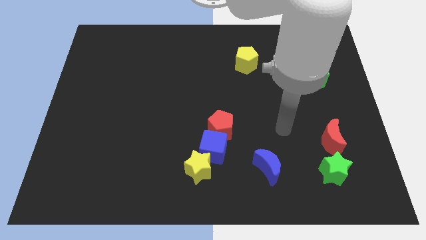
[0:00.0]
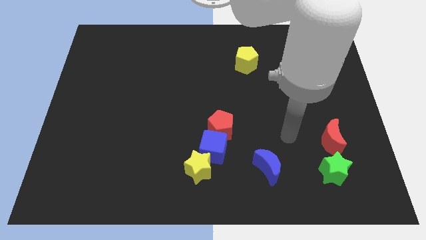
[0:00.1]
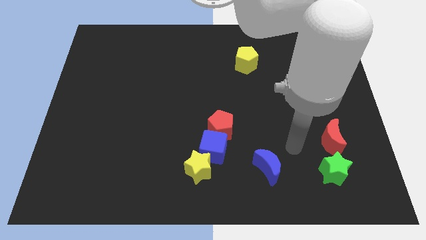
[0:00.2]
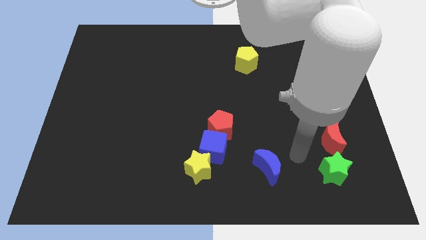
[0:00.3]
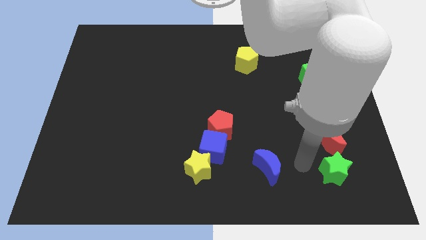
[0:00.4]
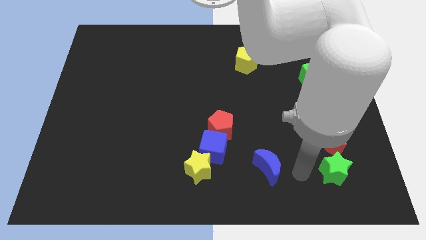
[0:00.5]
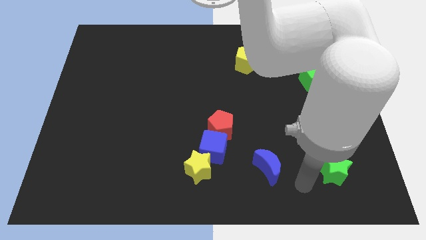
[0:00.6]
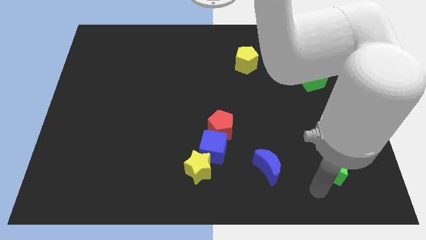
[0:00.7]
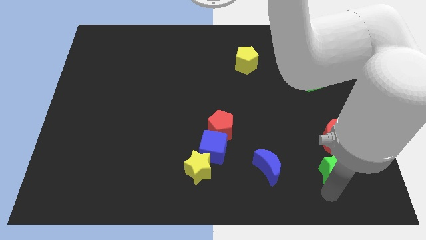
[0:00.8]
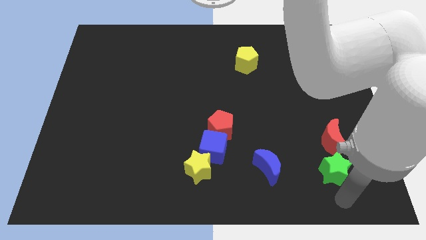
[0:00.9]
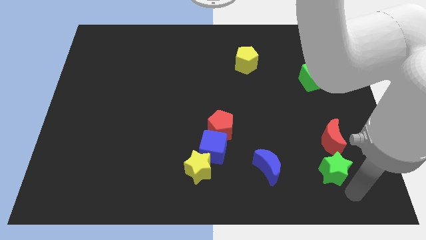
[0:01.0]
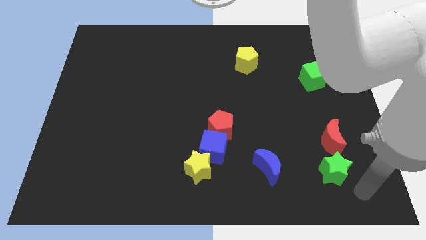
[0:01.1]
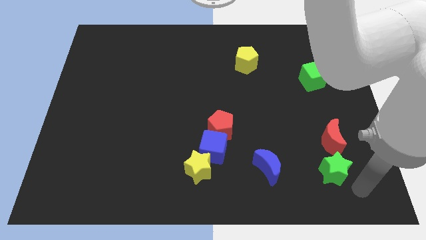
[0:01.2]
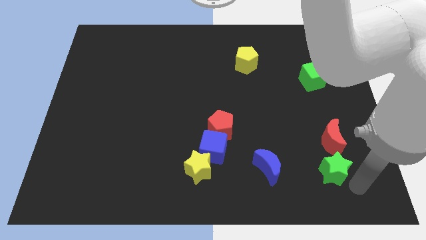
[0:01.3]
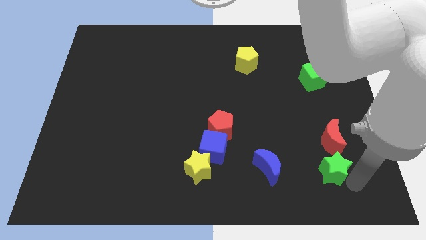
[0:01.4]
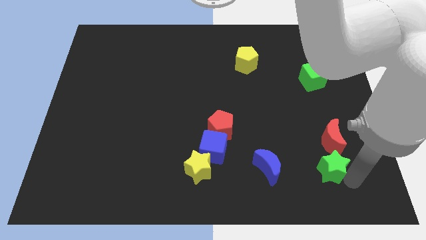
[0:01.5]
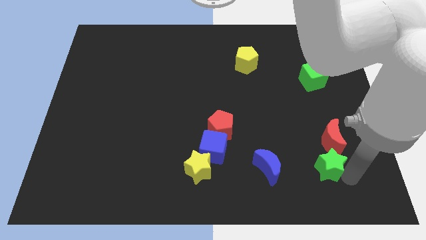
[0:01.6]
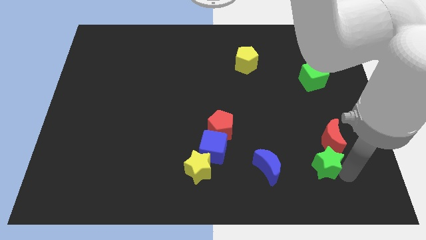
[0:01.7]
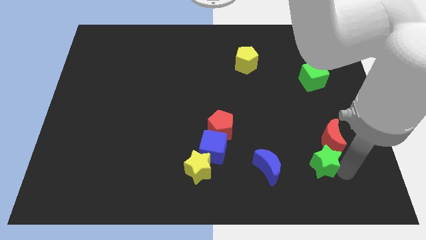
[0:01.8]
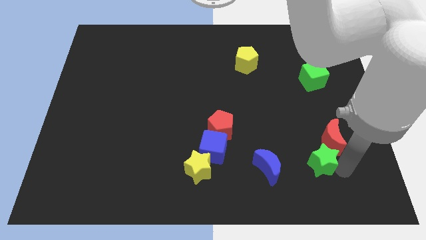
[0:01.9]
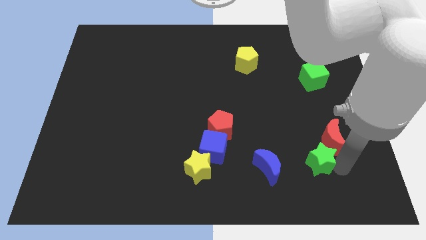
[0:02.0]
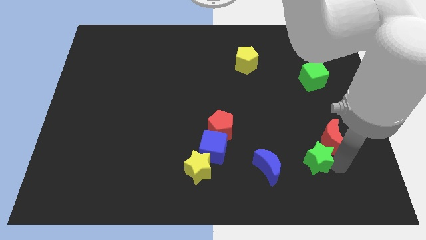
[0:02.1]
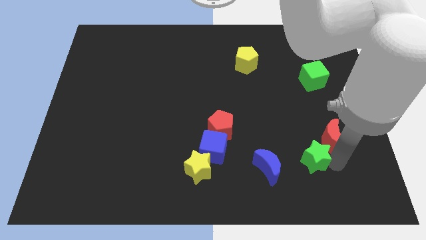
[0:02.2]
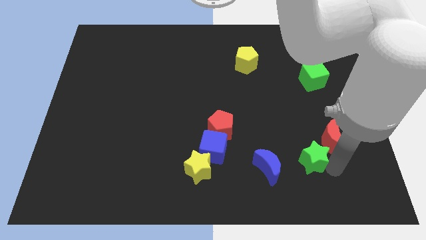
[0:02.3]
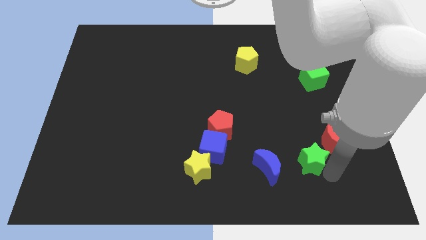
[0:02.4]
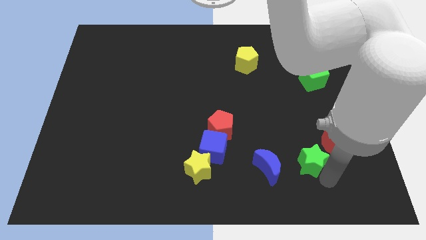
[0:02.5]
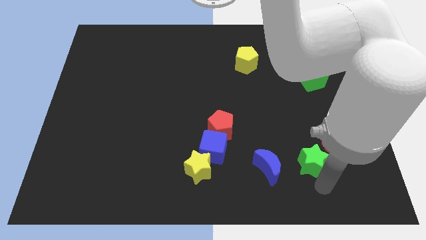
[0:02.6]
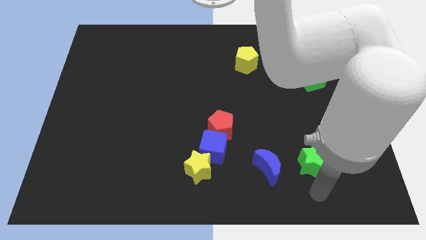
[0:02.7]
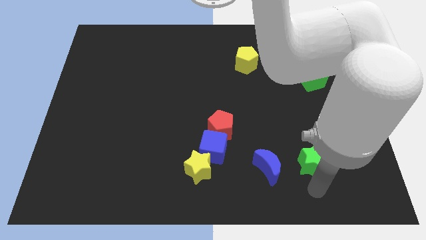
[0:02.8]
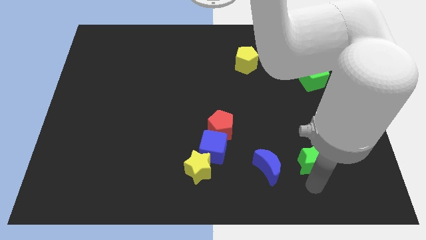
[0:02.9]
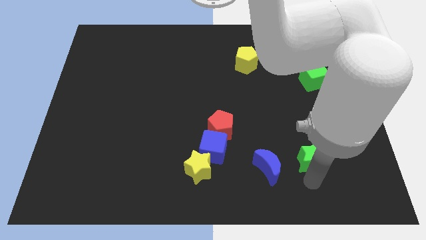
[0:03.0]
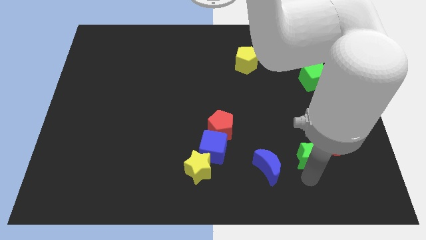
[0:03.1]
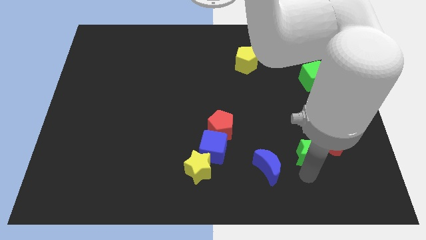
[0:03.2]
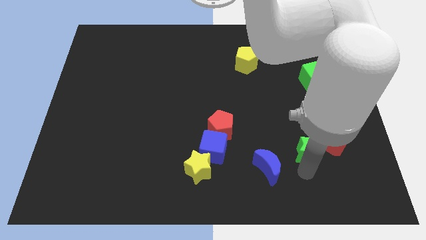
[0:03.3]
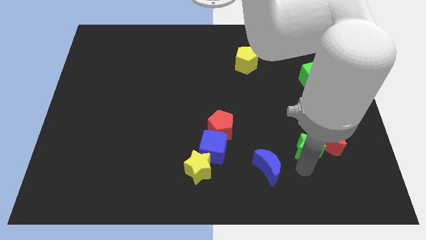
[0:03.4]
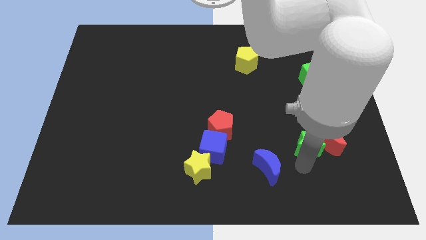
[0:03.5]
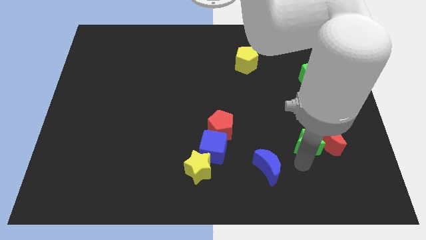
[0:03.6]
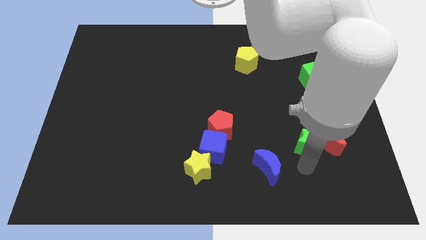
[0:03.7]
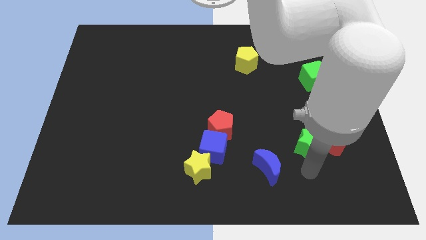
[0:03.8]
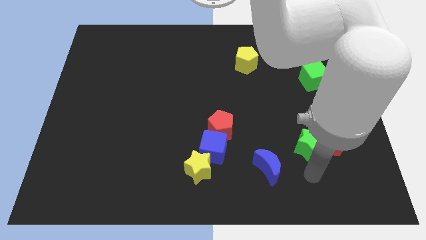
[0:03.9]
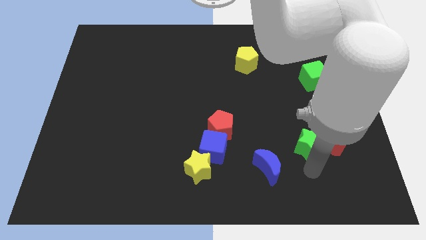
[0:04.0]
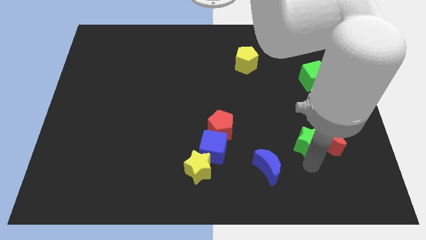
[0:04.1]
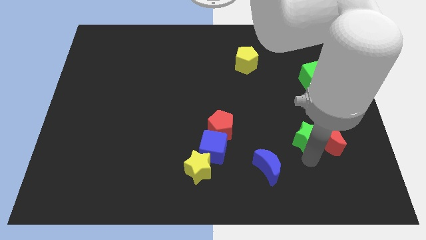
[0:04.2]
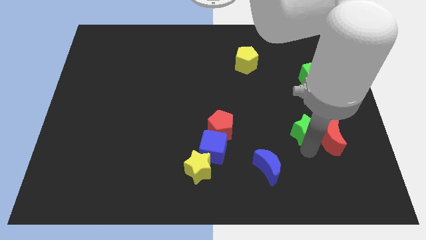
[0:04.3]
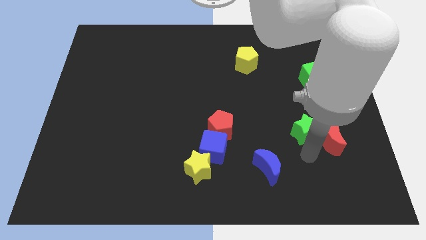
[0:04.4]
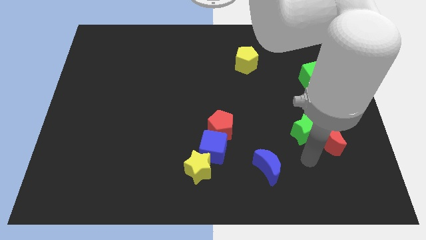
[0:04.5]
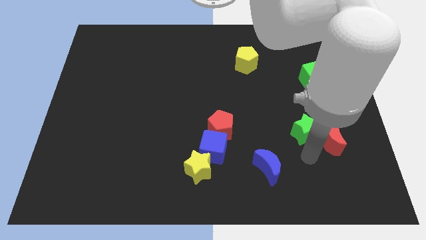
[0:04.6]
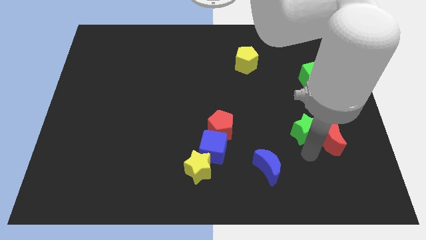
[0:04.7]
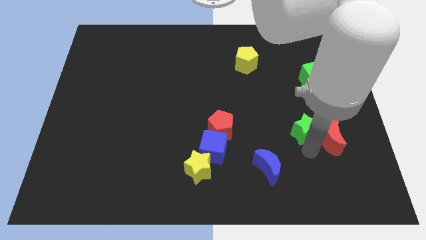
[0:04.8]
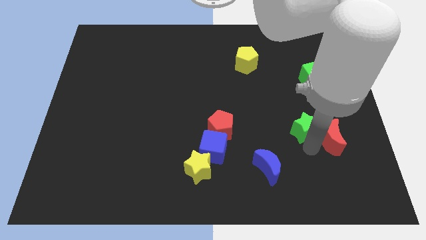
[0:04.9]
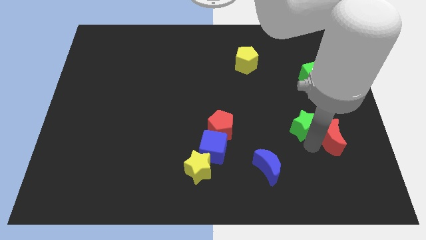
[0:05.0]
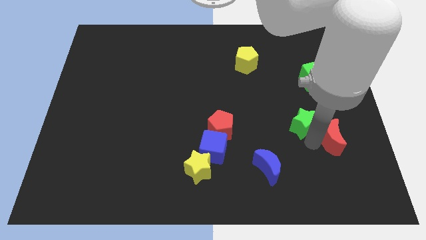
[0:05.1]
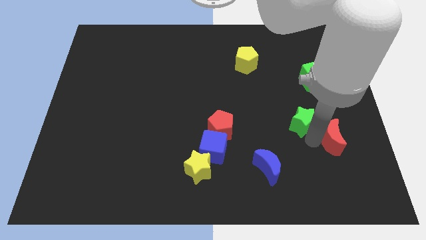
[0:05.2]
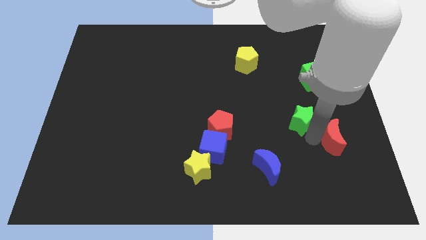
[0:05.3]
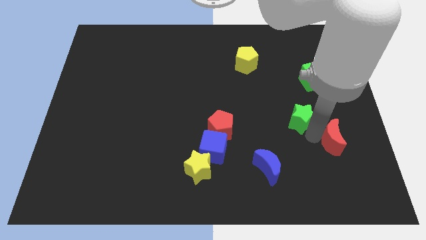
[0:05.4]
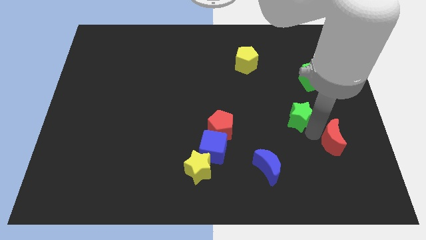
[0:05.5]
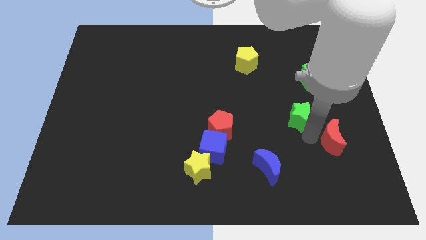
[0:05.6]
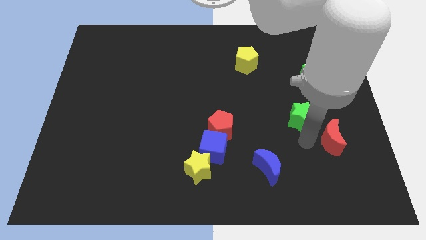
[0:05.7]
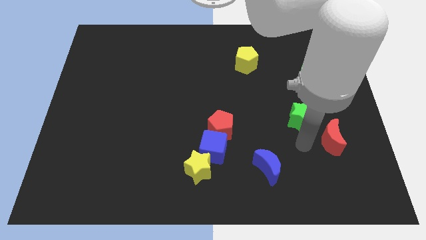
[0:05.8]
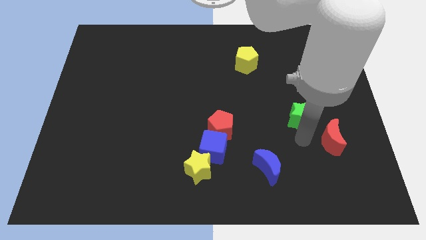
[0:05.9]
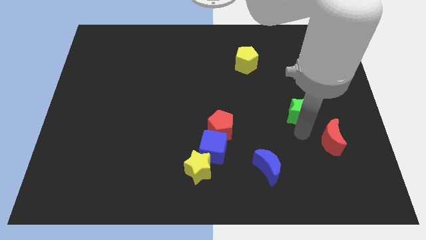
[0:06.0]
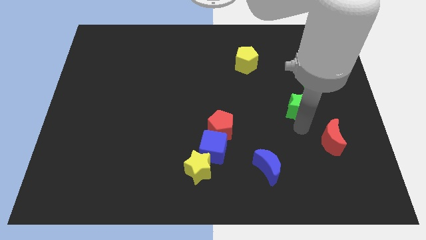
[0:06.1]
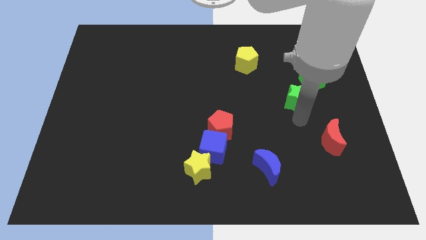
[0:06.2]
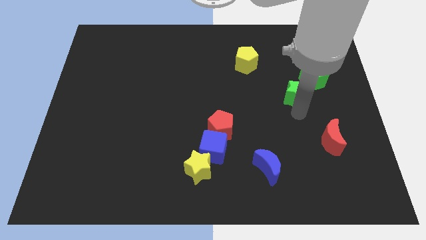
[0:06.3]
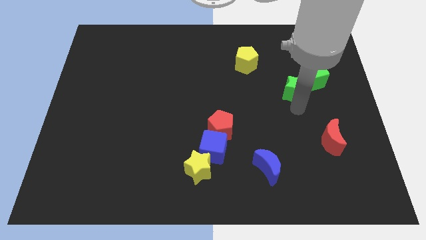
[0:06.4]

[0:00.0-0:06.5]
slide the green star up

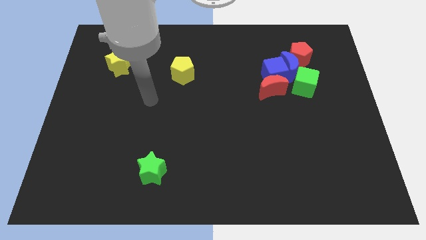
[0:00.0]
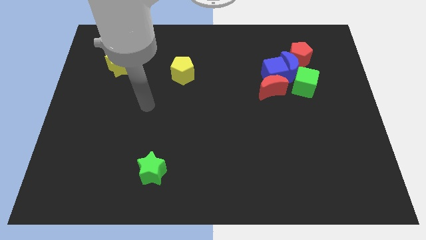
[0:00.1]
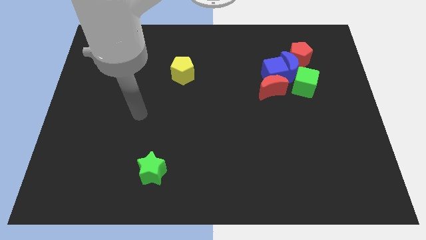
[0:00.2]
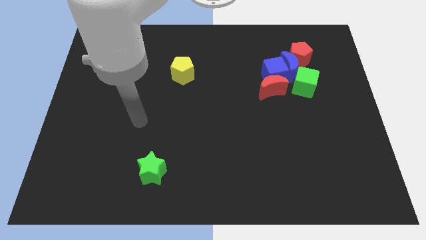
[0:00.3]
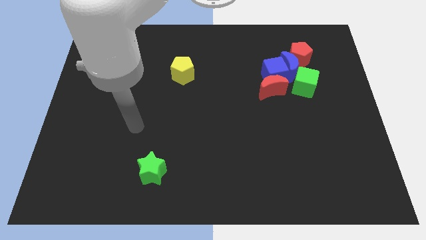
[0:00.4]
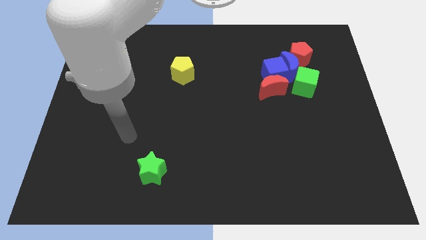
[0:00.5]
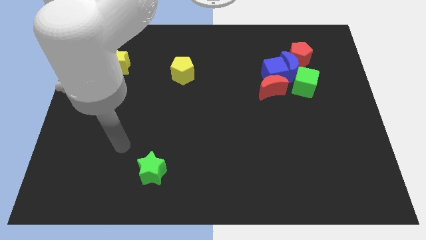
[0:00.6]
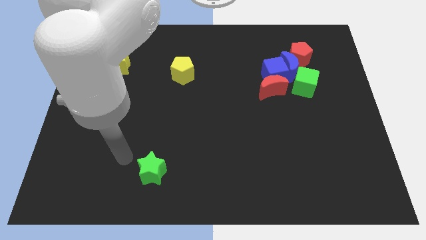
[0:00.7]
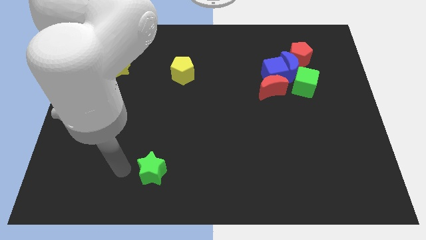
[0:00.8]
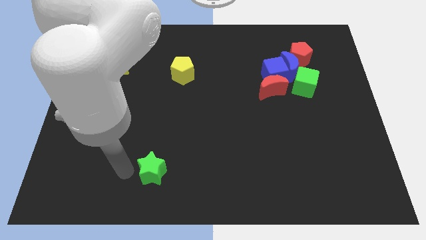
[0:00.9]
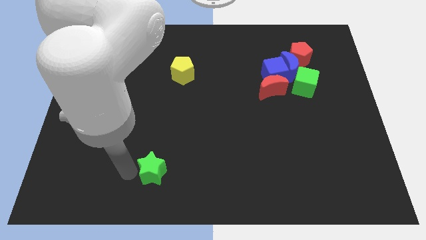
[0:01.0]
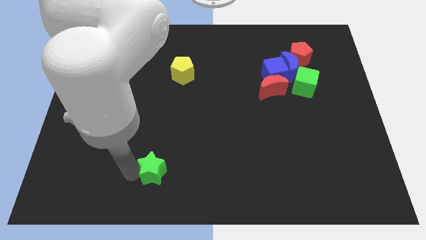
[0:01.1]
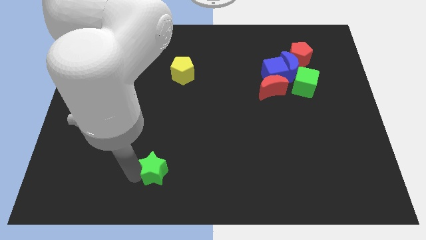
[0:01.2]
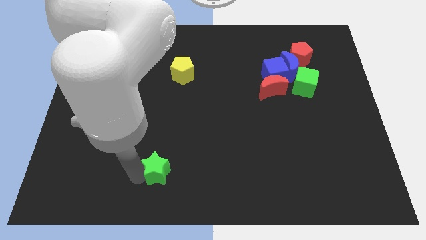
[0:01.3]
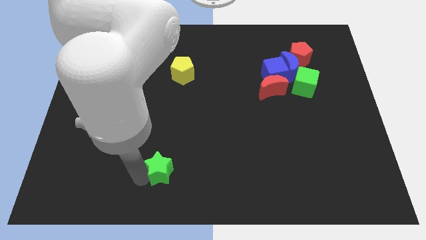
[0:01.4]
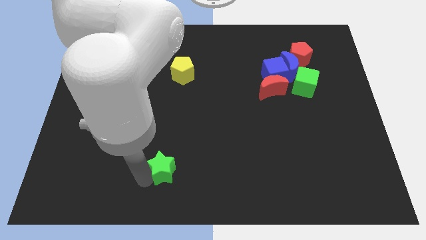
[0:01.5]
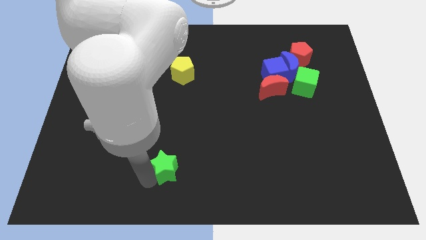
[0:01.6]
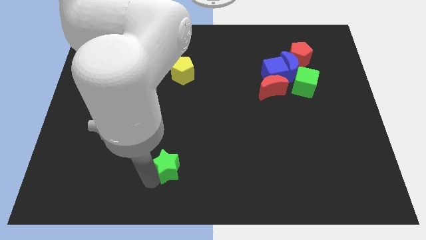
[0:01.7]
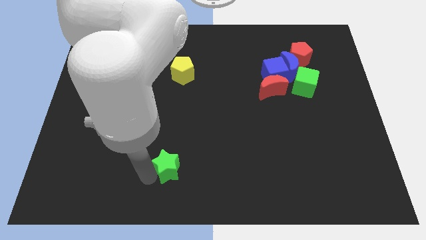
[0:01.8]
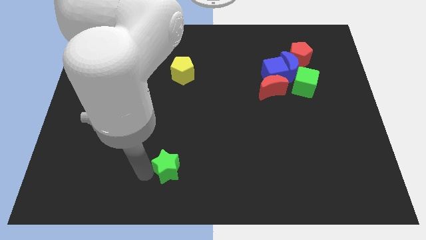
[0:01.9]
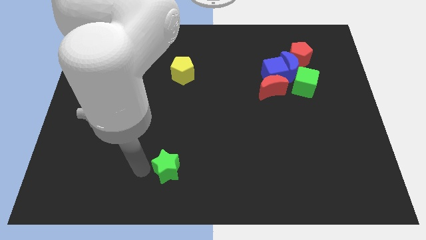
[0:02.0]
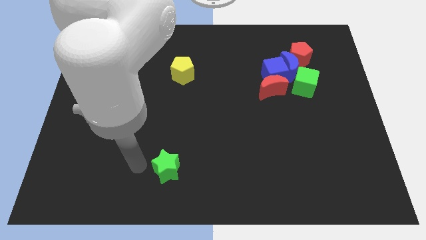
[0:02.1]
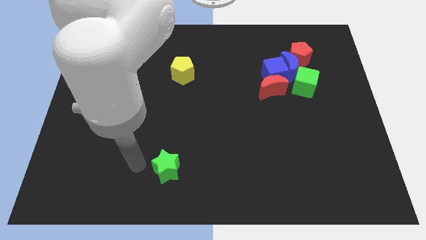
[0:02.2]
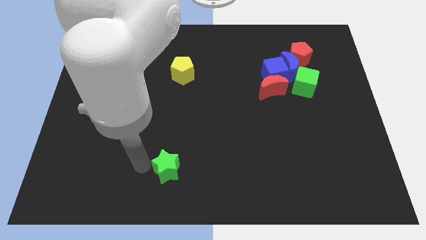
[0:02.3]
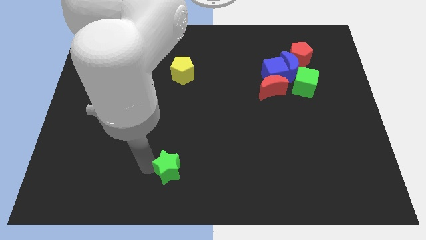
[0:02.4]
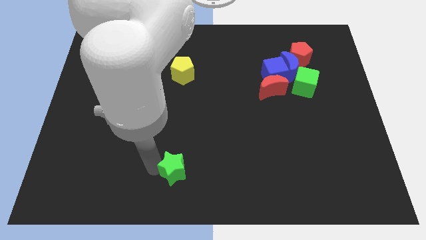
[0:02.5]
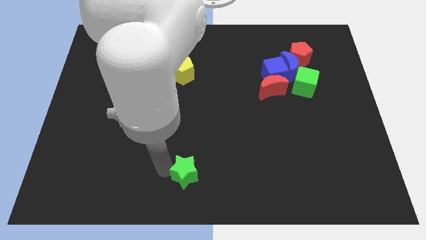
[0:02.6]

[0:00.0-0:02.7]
slightly move the green star right
